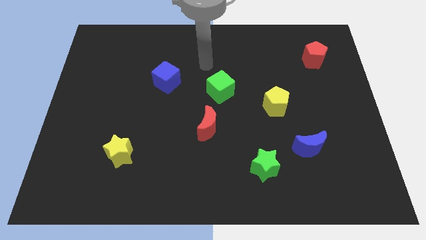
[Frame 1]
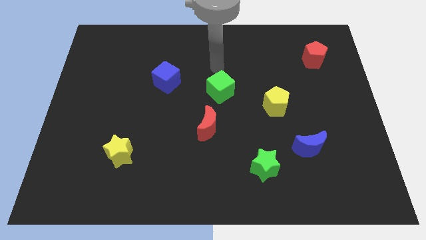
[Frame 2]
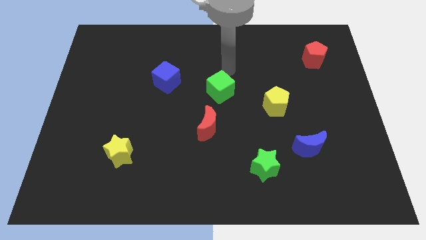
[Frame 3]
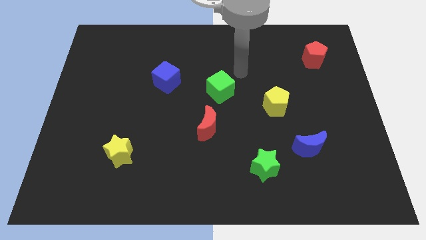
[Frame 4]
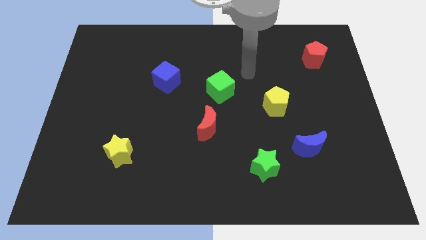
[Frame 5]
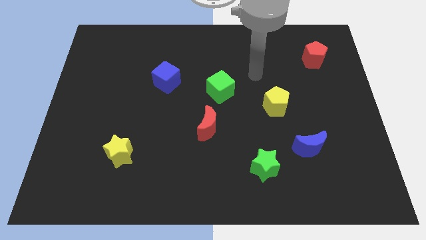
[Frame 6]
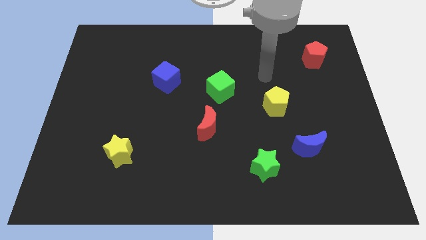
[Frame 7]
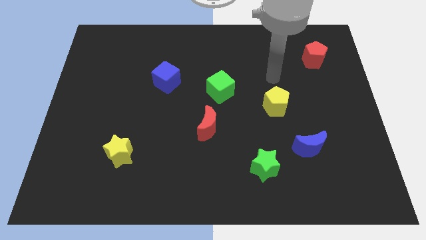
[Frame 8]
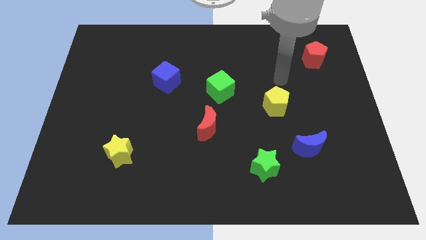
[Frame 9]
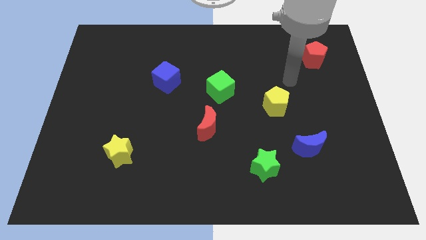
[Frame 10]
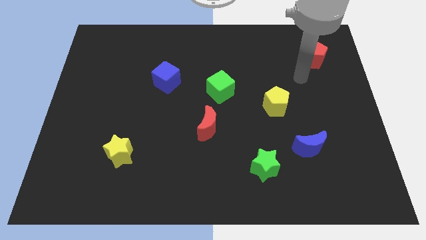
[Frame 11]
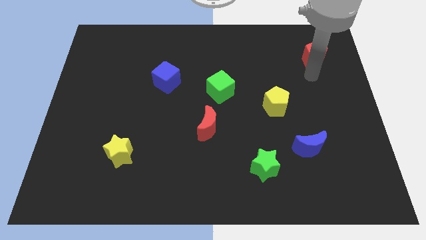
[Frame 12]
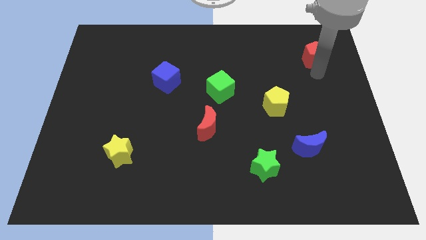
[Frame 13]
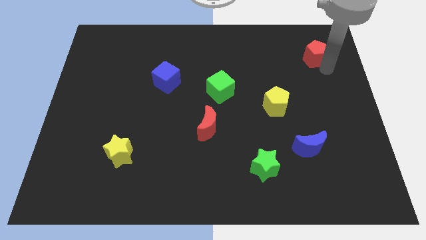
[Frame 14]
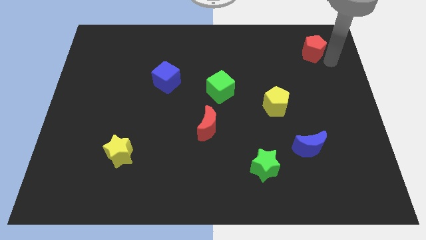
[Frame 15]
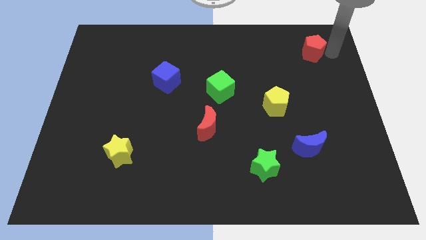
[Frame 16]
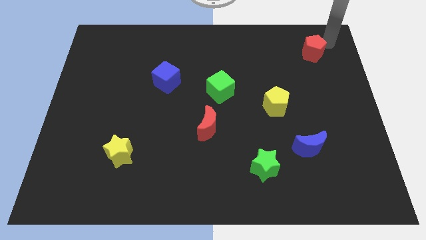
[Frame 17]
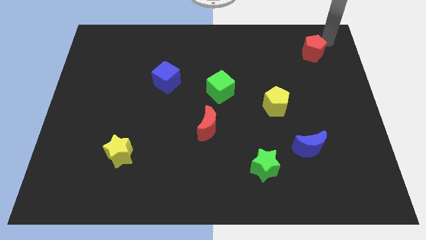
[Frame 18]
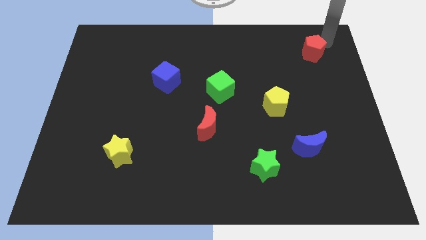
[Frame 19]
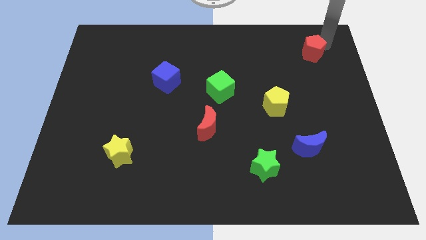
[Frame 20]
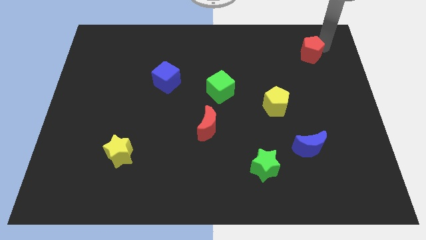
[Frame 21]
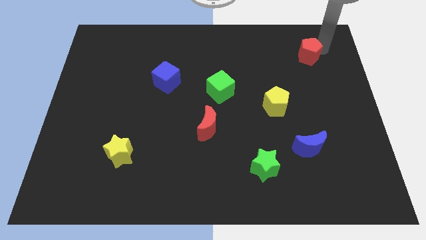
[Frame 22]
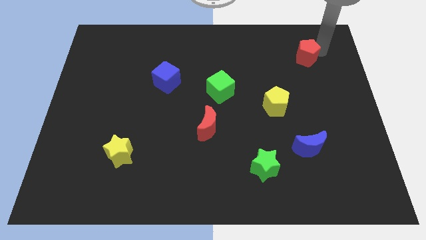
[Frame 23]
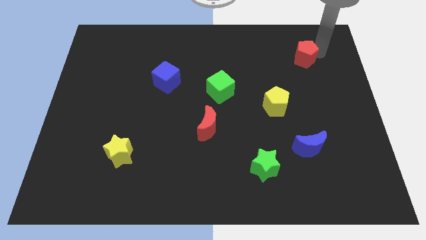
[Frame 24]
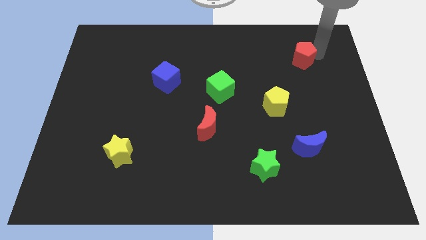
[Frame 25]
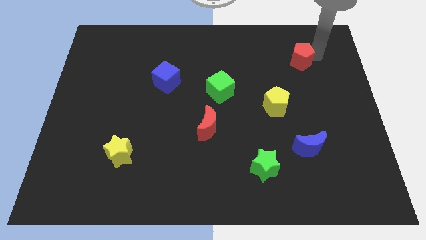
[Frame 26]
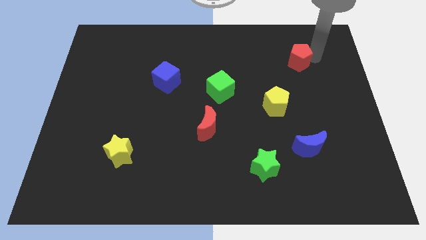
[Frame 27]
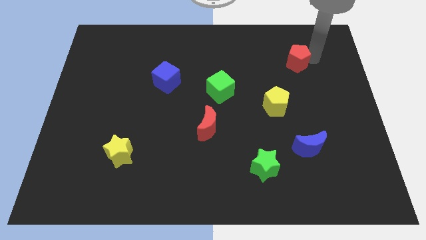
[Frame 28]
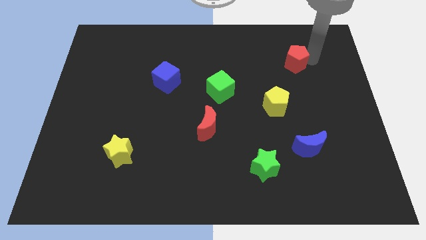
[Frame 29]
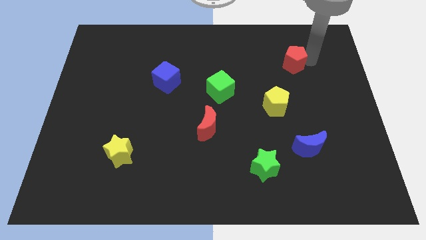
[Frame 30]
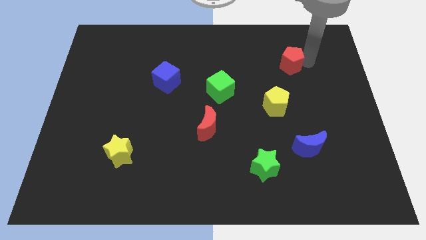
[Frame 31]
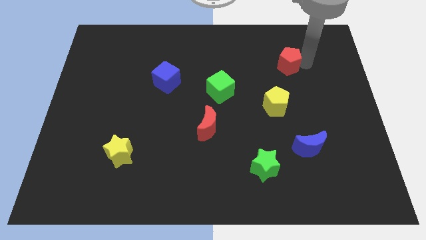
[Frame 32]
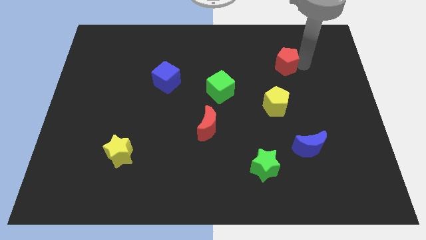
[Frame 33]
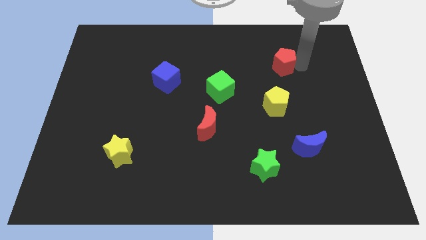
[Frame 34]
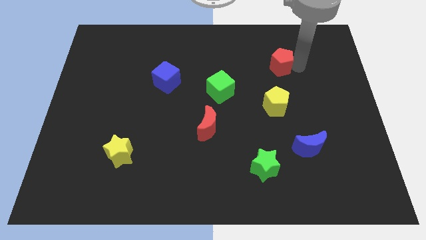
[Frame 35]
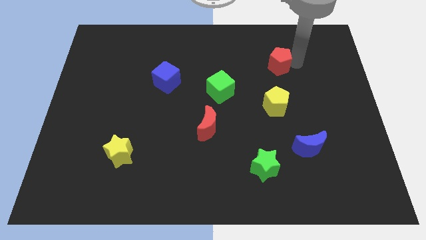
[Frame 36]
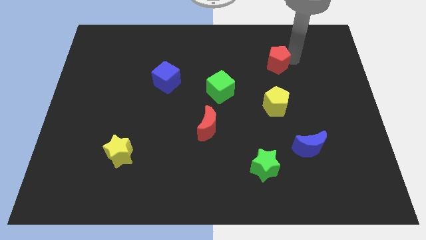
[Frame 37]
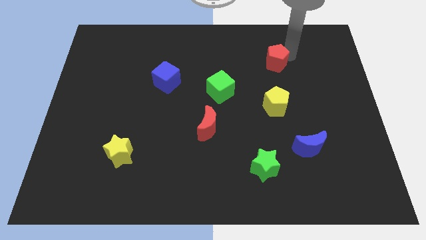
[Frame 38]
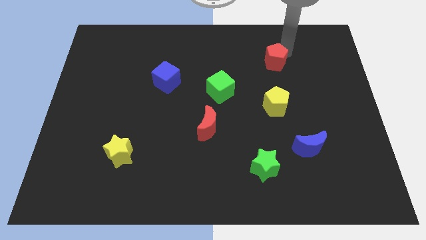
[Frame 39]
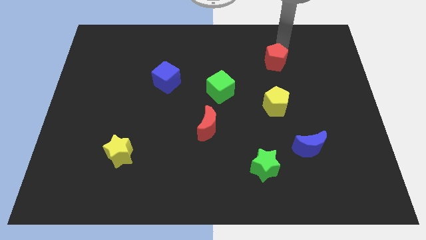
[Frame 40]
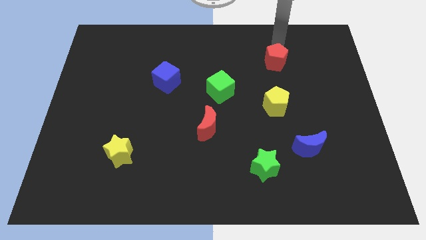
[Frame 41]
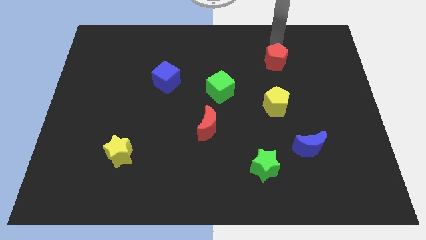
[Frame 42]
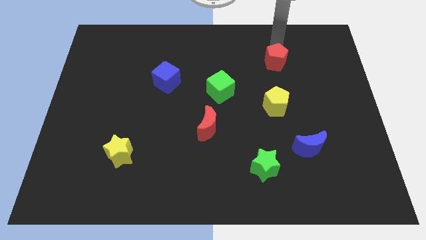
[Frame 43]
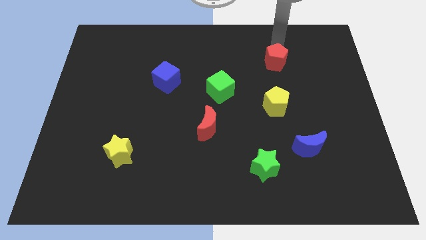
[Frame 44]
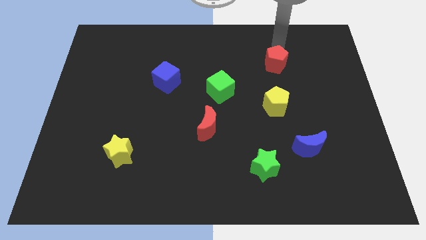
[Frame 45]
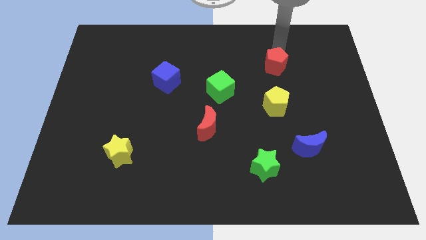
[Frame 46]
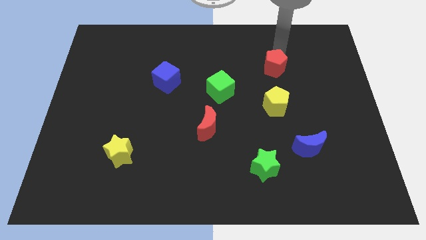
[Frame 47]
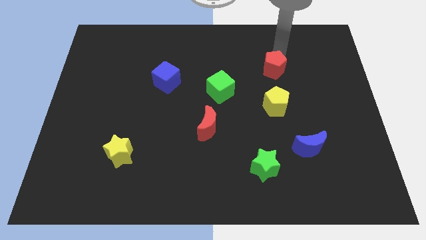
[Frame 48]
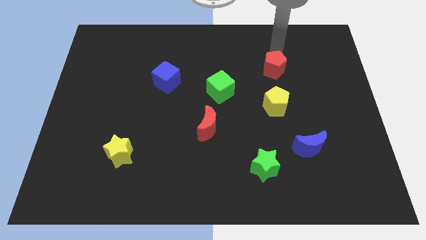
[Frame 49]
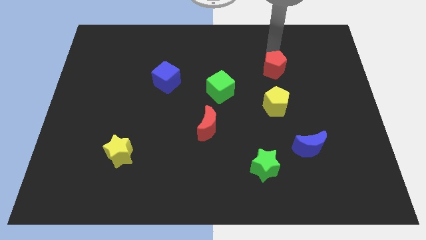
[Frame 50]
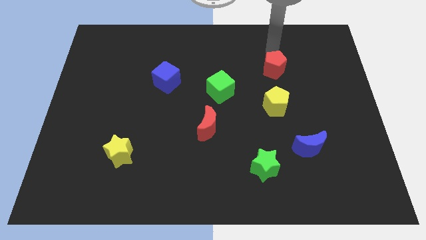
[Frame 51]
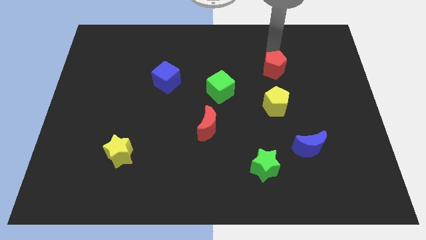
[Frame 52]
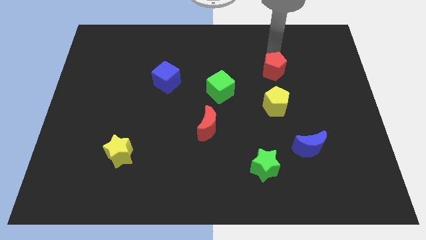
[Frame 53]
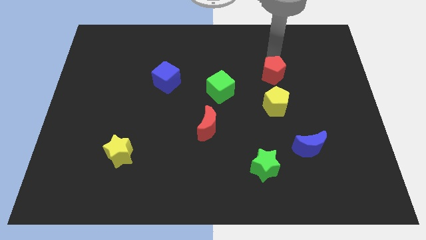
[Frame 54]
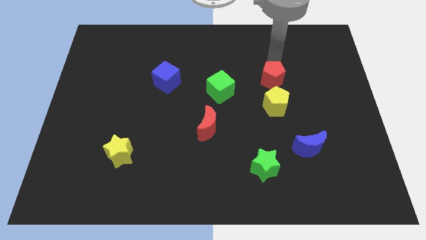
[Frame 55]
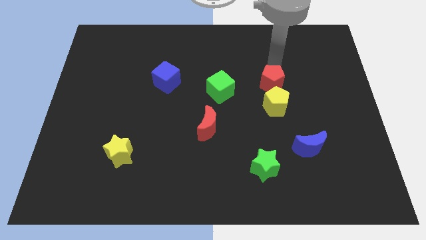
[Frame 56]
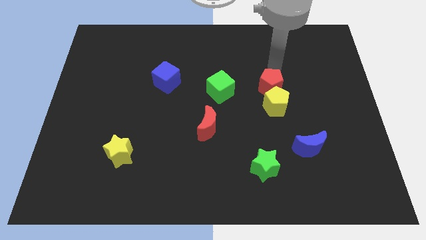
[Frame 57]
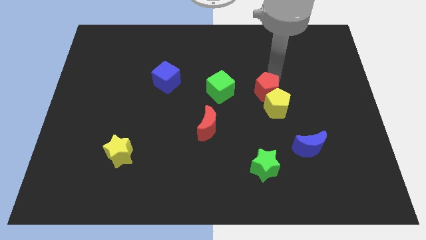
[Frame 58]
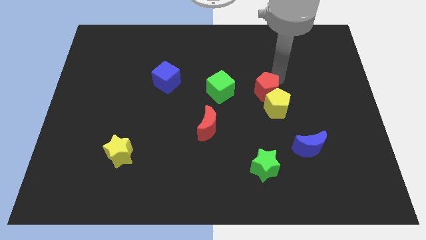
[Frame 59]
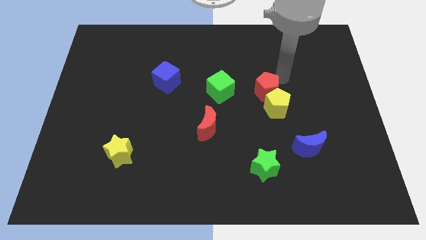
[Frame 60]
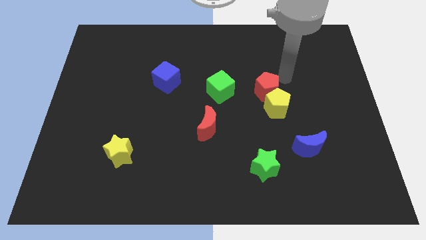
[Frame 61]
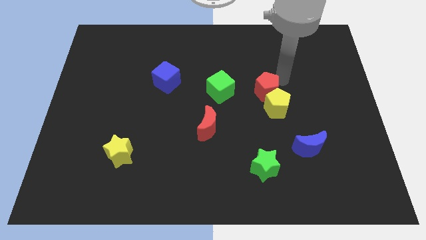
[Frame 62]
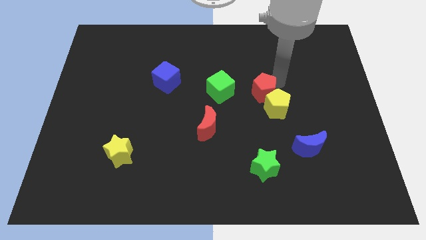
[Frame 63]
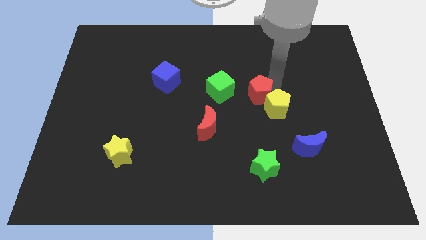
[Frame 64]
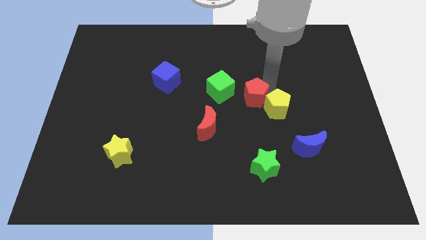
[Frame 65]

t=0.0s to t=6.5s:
push the red pentagon diagonally down and left

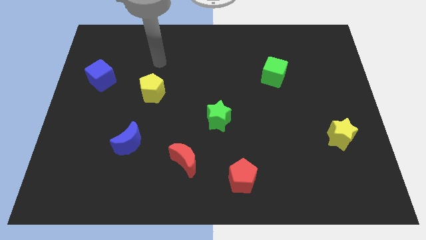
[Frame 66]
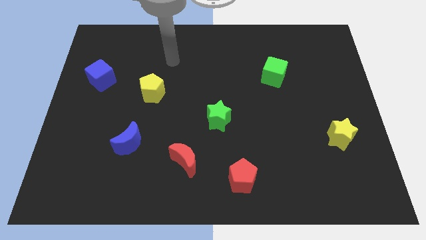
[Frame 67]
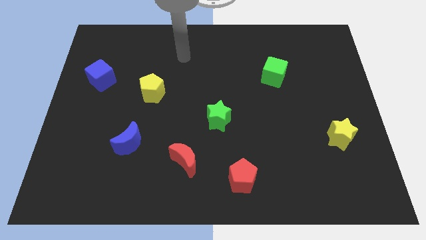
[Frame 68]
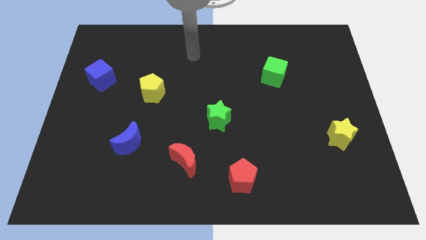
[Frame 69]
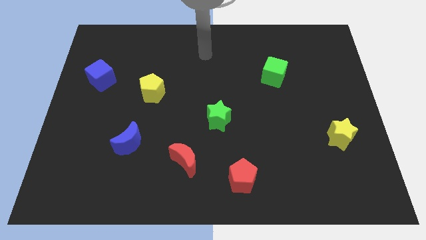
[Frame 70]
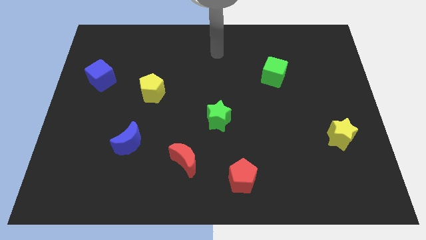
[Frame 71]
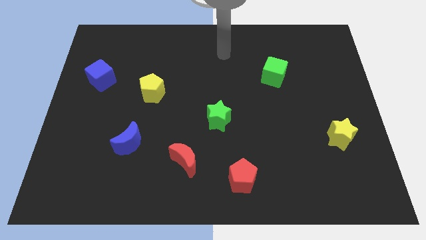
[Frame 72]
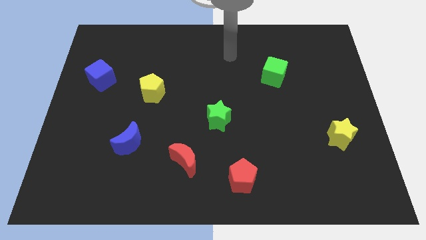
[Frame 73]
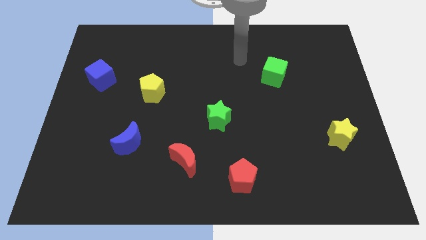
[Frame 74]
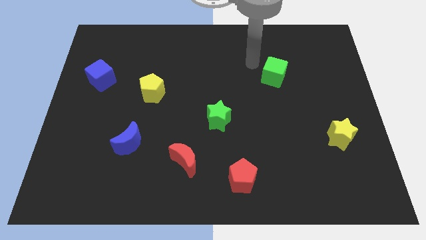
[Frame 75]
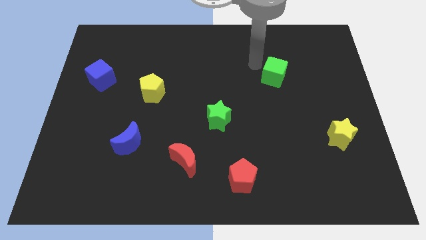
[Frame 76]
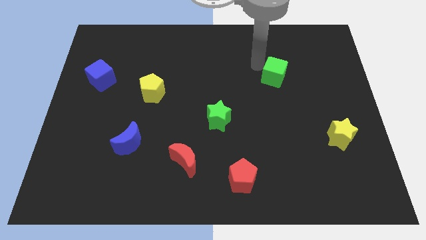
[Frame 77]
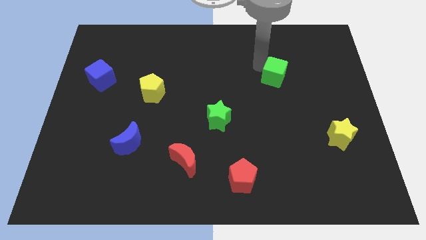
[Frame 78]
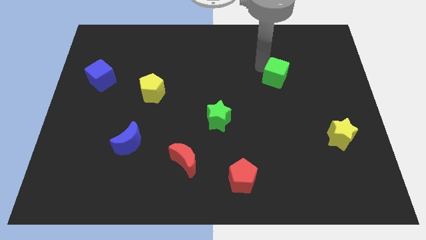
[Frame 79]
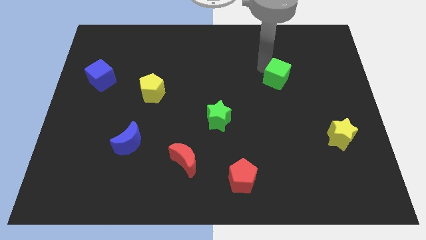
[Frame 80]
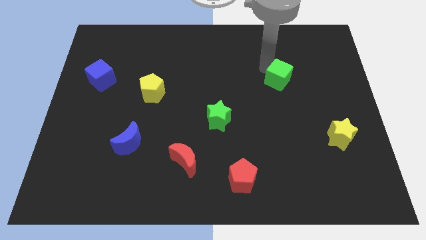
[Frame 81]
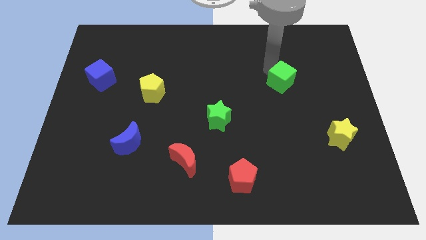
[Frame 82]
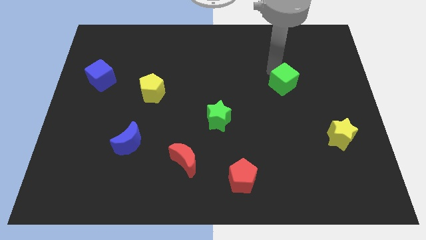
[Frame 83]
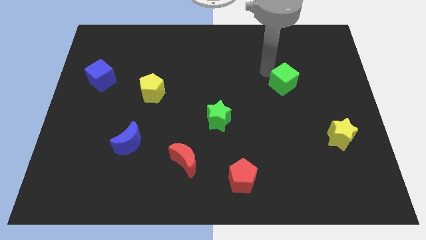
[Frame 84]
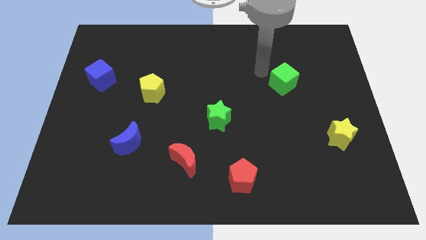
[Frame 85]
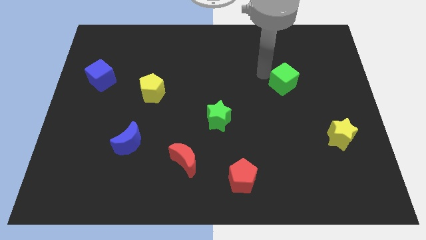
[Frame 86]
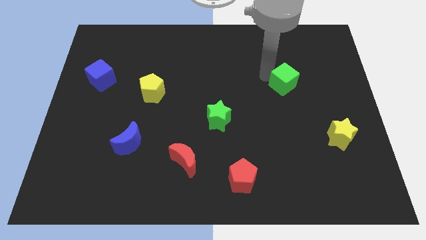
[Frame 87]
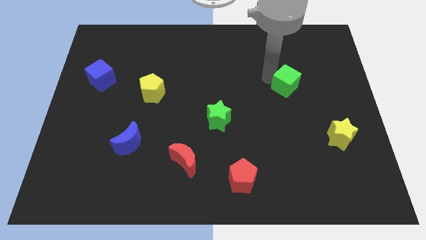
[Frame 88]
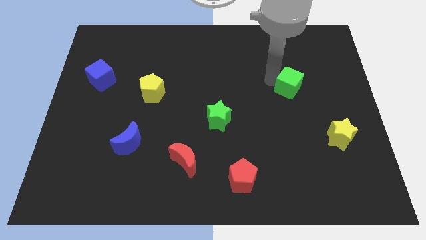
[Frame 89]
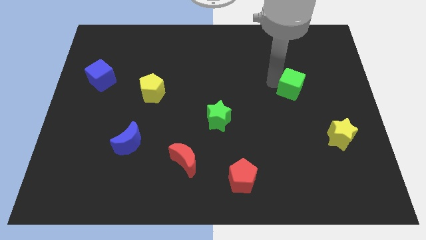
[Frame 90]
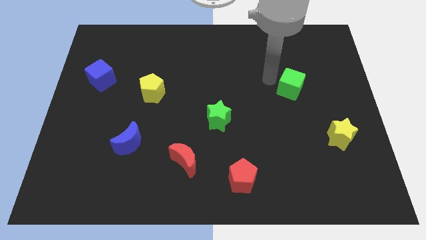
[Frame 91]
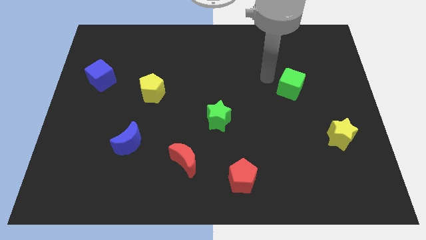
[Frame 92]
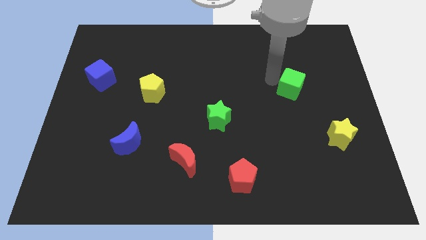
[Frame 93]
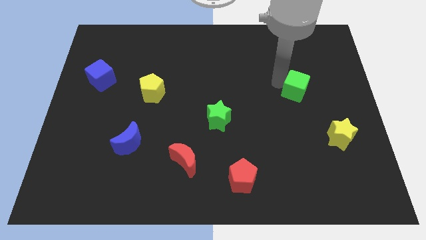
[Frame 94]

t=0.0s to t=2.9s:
move the green cube a little bit downwards and to the right diagonally
